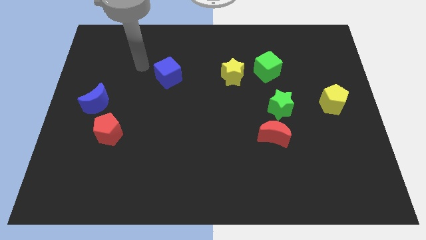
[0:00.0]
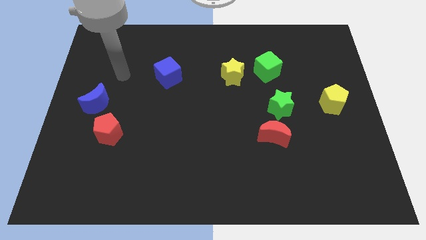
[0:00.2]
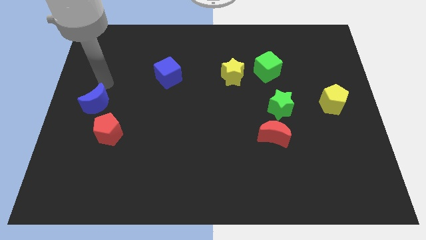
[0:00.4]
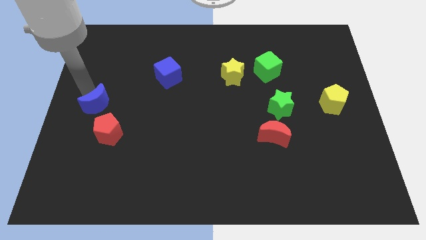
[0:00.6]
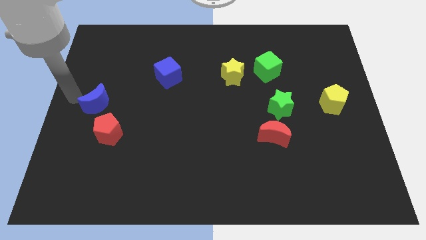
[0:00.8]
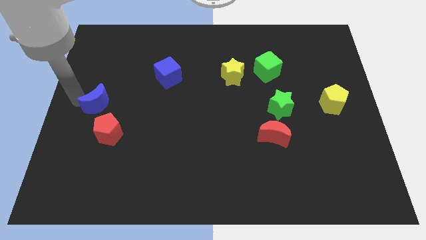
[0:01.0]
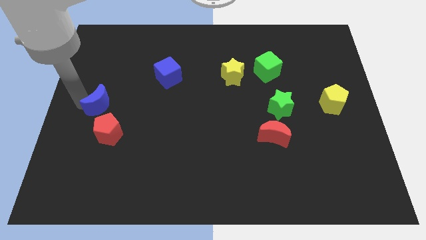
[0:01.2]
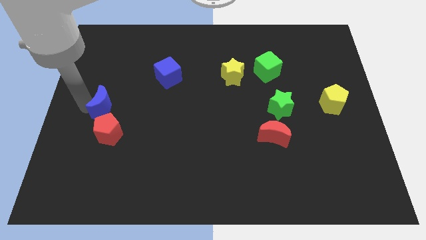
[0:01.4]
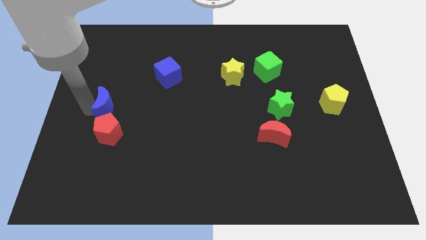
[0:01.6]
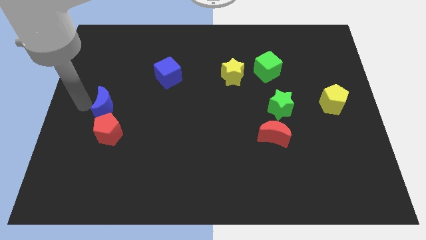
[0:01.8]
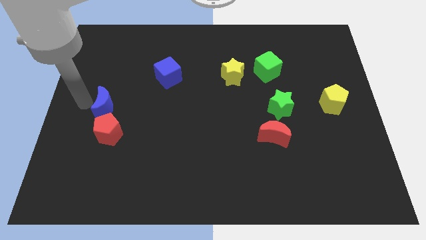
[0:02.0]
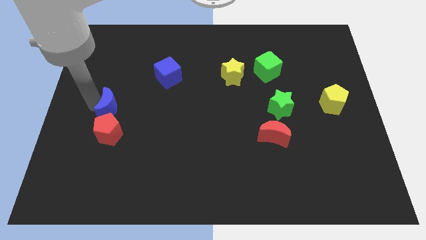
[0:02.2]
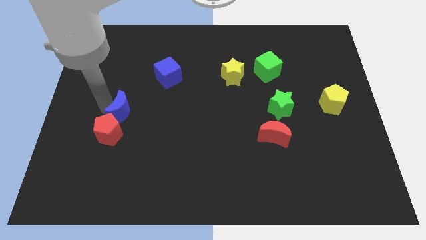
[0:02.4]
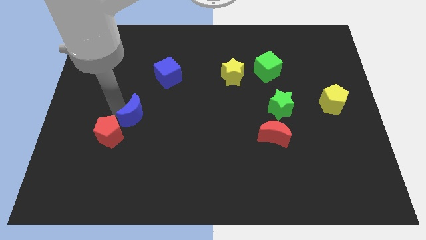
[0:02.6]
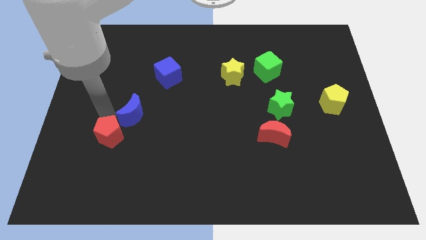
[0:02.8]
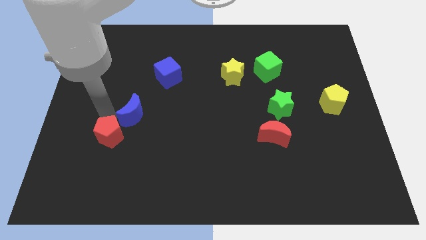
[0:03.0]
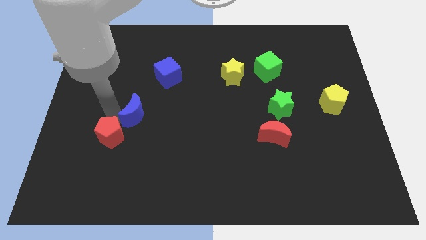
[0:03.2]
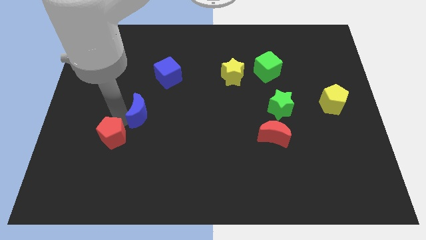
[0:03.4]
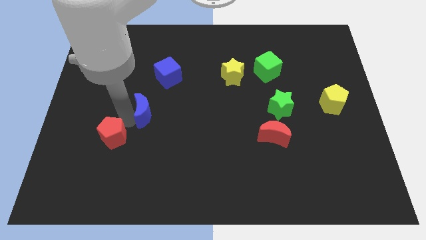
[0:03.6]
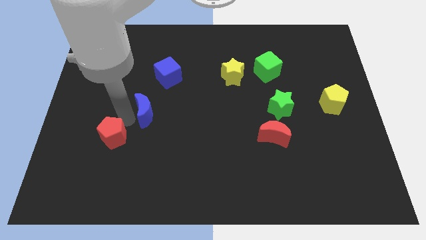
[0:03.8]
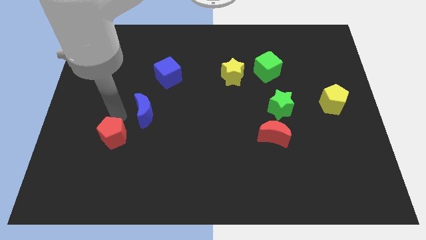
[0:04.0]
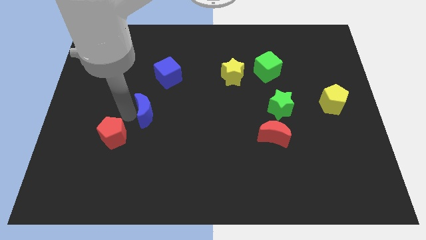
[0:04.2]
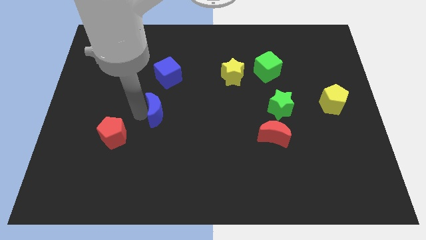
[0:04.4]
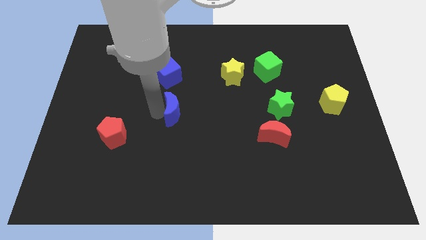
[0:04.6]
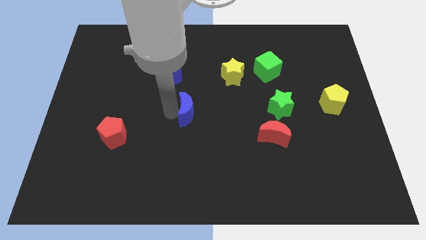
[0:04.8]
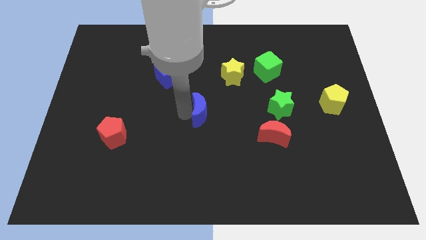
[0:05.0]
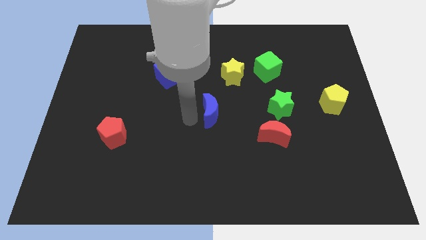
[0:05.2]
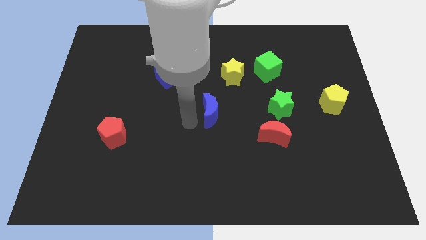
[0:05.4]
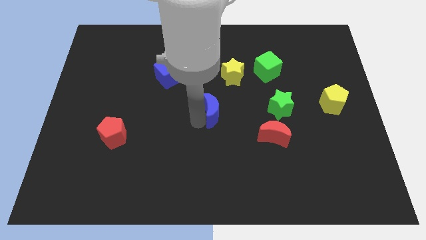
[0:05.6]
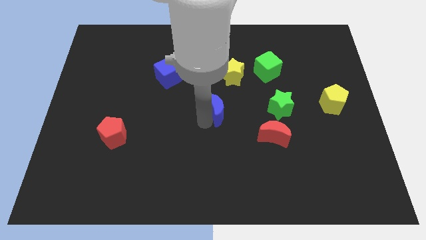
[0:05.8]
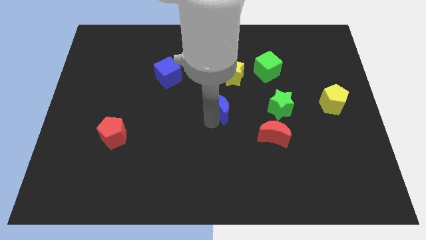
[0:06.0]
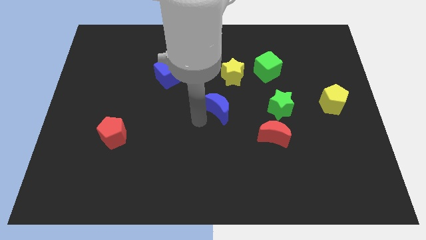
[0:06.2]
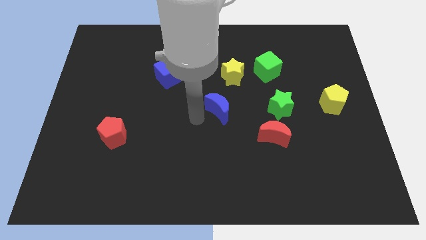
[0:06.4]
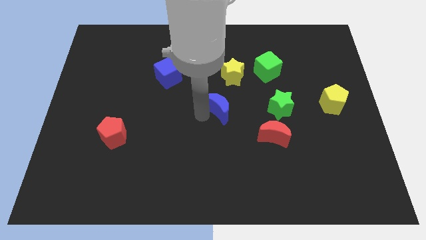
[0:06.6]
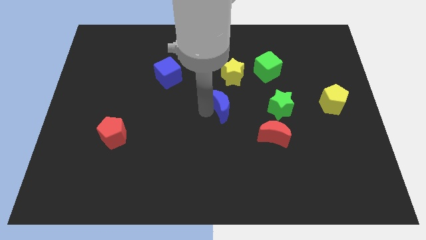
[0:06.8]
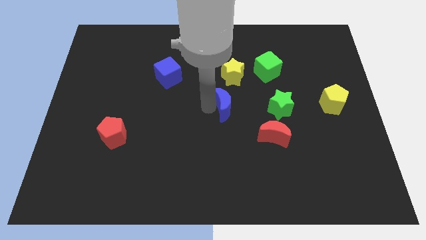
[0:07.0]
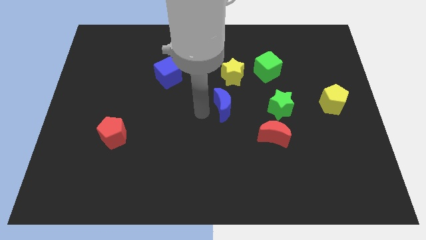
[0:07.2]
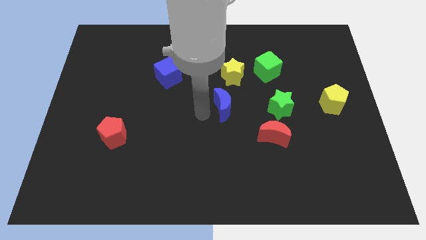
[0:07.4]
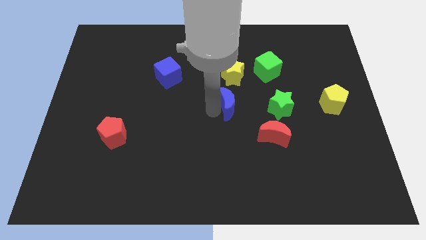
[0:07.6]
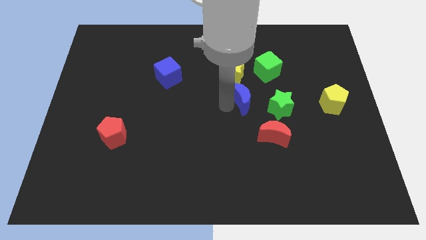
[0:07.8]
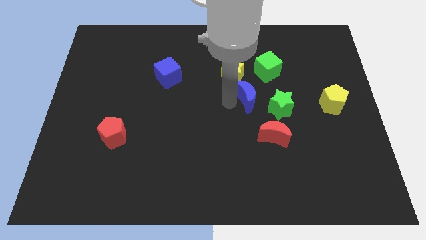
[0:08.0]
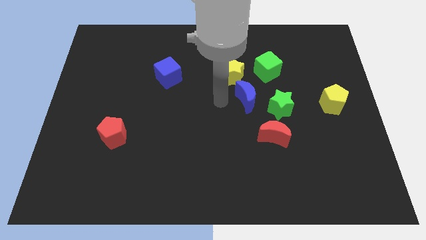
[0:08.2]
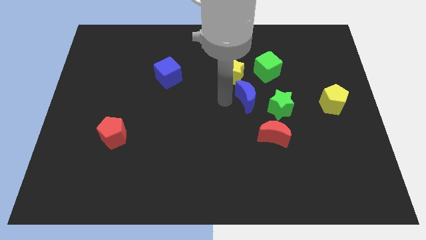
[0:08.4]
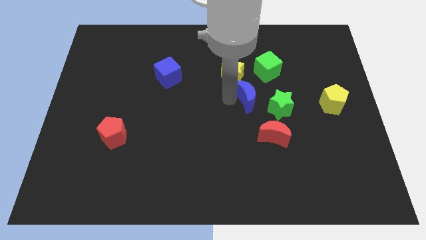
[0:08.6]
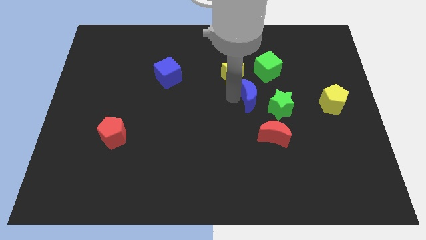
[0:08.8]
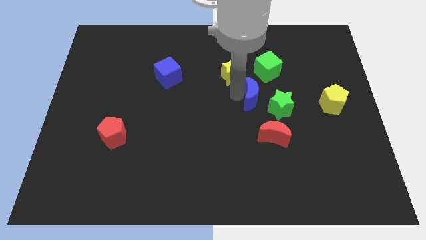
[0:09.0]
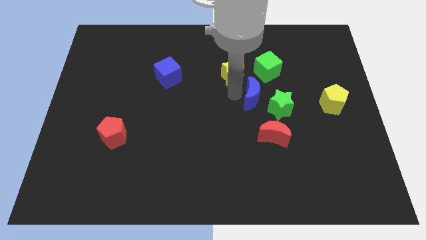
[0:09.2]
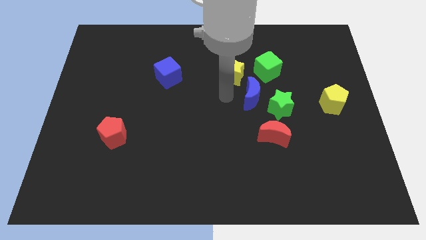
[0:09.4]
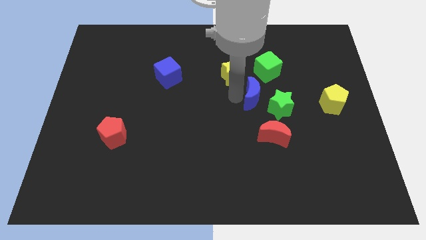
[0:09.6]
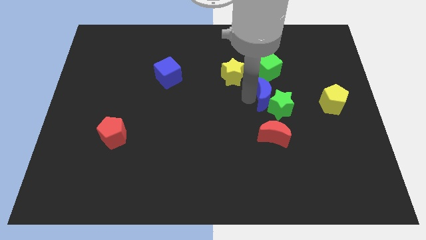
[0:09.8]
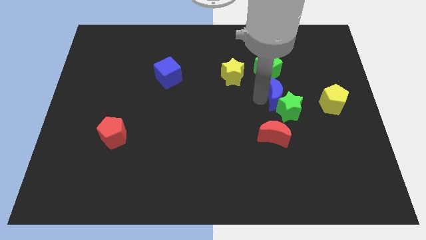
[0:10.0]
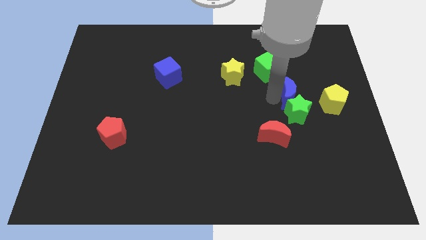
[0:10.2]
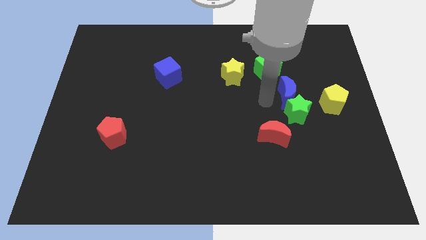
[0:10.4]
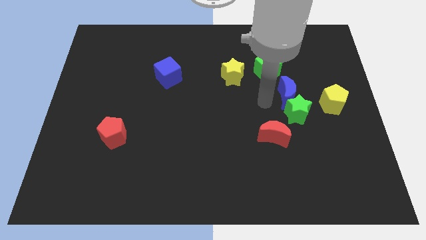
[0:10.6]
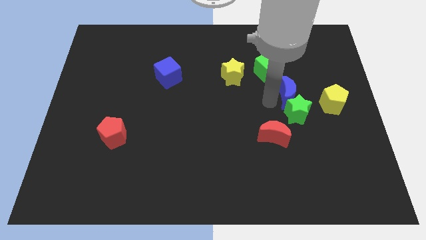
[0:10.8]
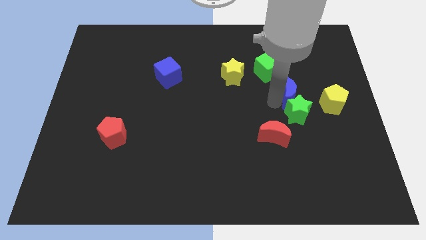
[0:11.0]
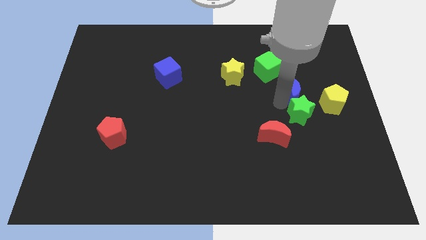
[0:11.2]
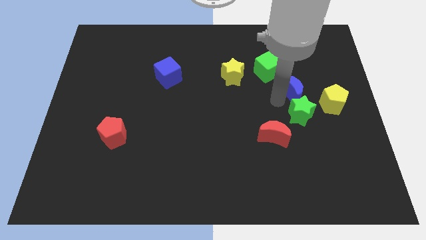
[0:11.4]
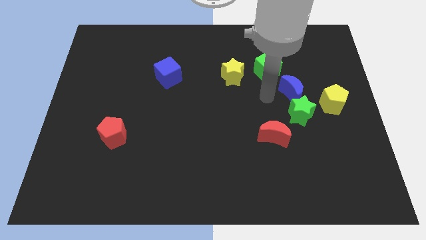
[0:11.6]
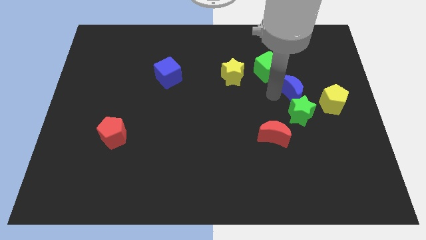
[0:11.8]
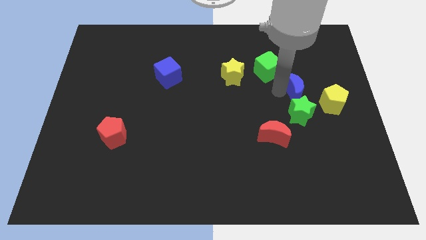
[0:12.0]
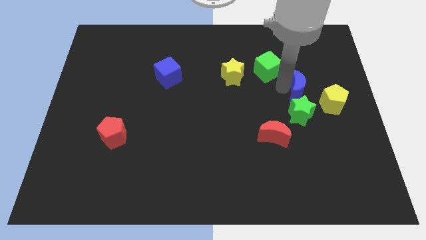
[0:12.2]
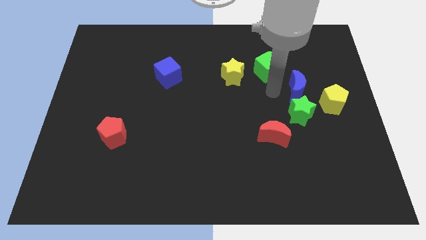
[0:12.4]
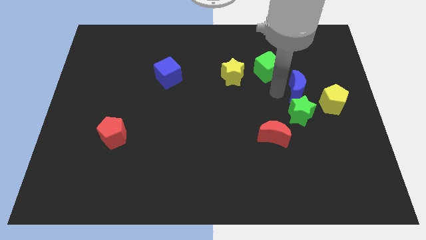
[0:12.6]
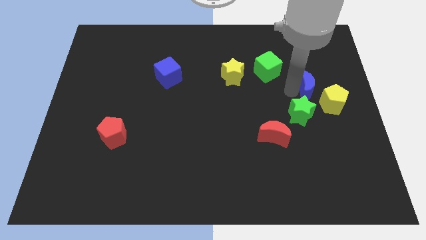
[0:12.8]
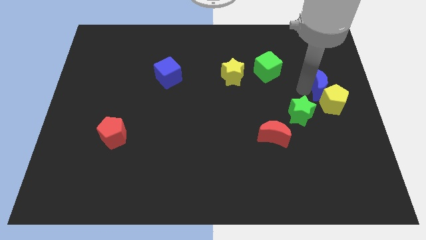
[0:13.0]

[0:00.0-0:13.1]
put the blue moon to the right side of the board
